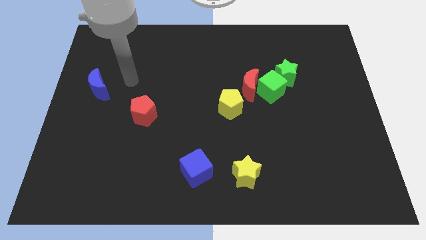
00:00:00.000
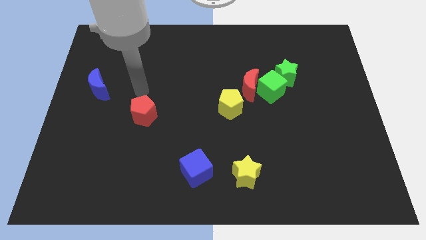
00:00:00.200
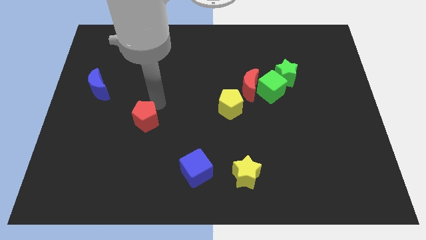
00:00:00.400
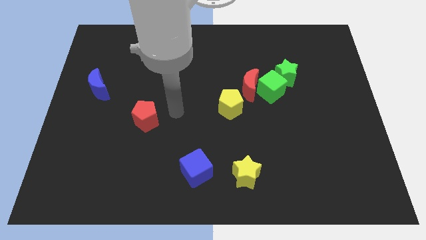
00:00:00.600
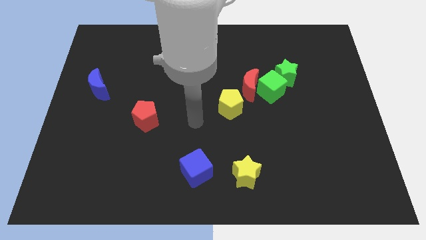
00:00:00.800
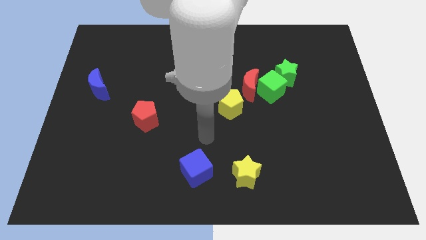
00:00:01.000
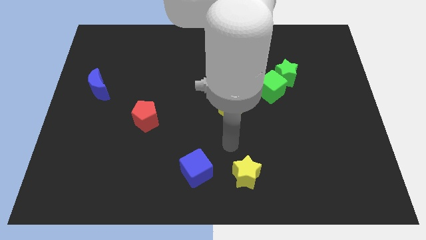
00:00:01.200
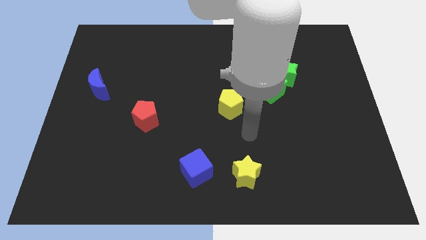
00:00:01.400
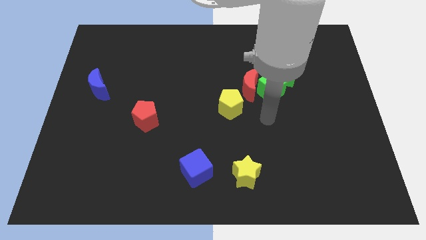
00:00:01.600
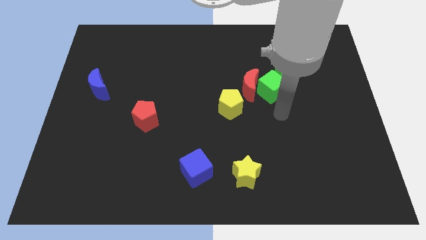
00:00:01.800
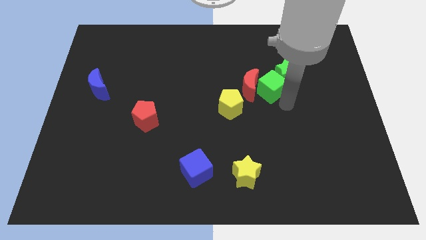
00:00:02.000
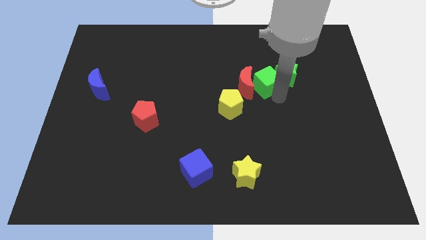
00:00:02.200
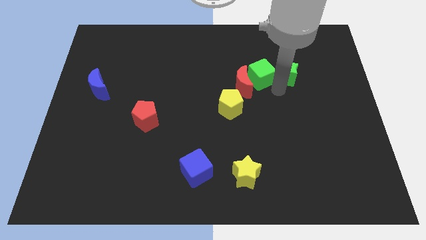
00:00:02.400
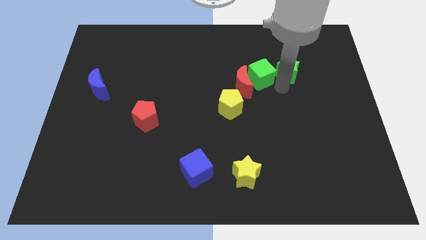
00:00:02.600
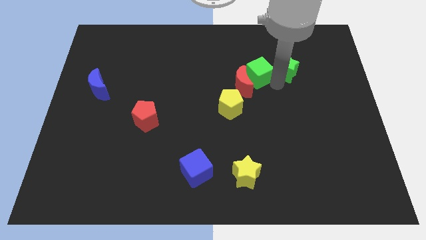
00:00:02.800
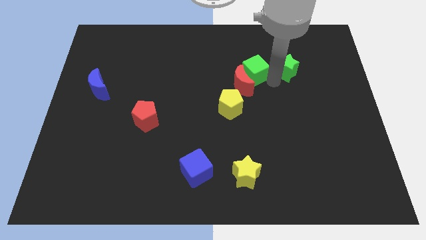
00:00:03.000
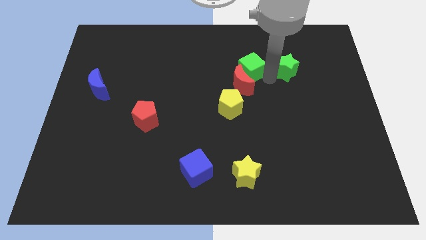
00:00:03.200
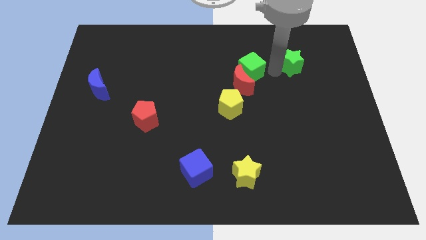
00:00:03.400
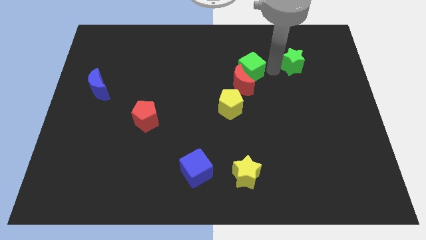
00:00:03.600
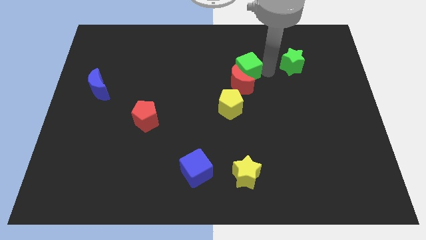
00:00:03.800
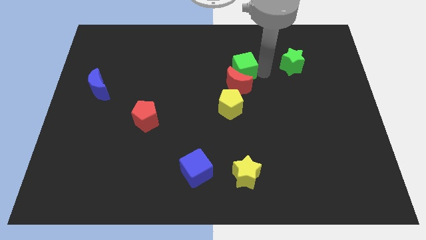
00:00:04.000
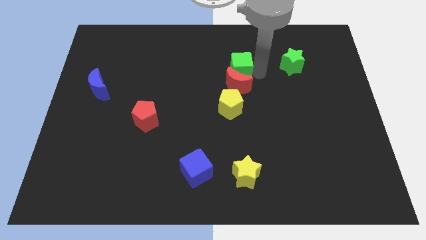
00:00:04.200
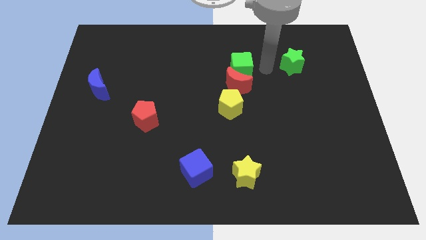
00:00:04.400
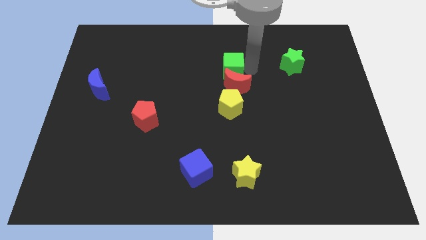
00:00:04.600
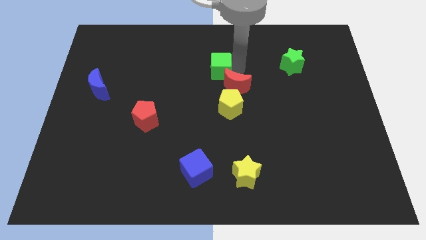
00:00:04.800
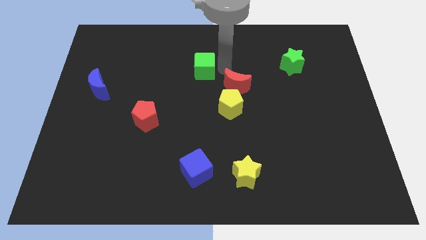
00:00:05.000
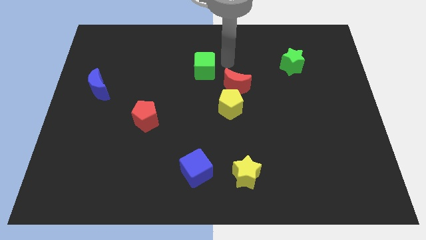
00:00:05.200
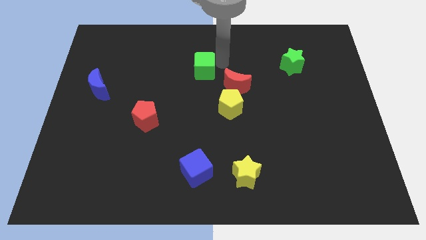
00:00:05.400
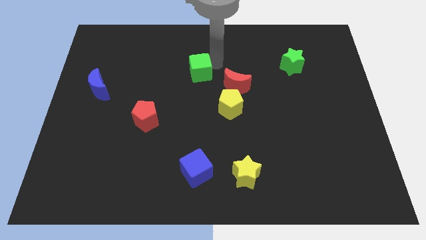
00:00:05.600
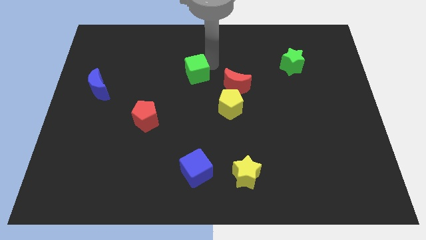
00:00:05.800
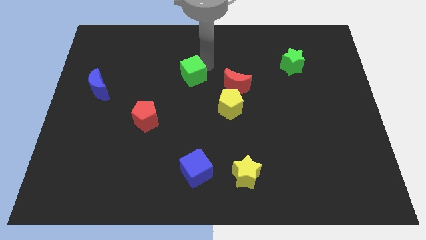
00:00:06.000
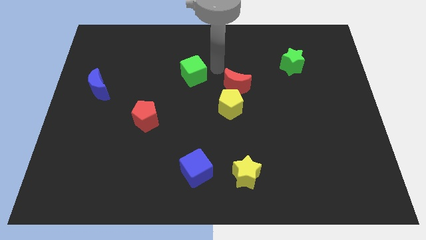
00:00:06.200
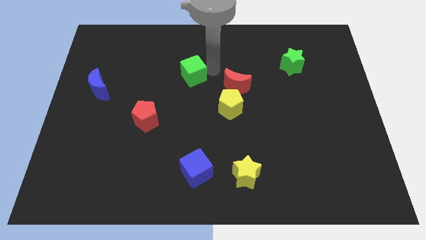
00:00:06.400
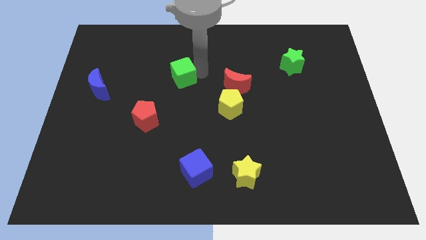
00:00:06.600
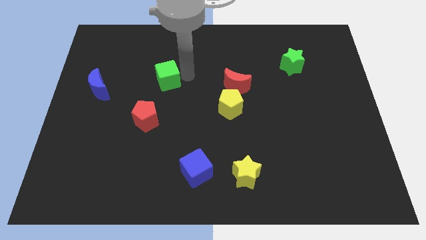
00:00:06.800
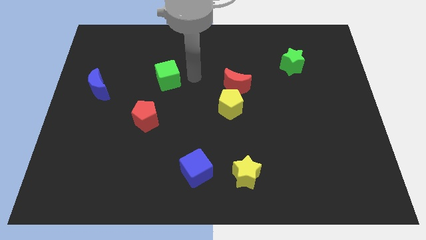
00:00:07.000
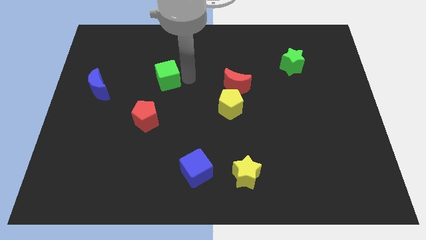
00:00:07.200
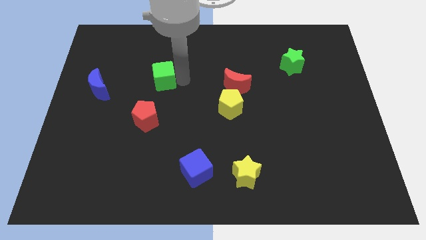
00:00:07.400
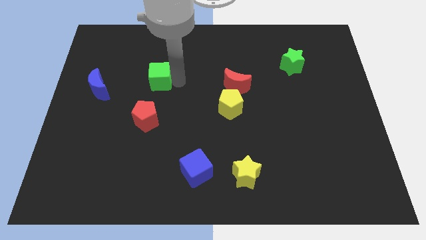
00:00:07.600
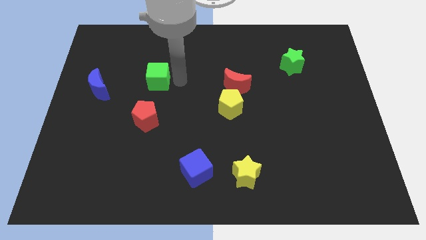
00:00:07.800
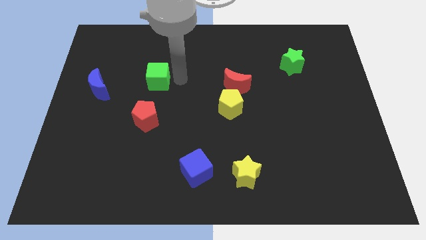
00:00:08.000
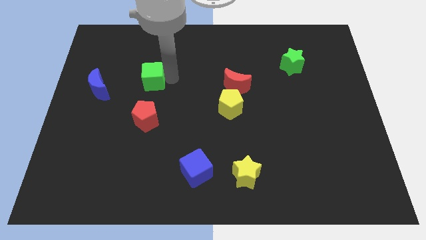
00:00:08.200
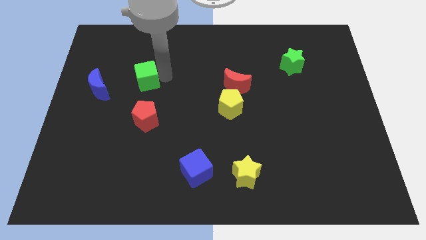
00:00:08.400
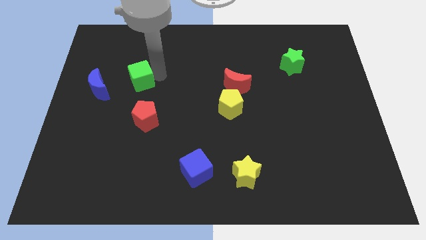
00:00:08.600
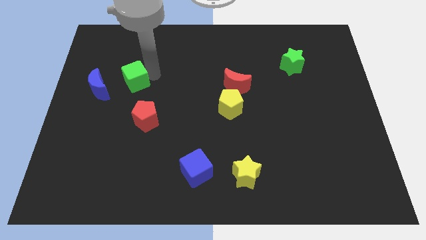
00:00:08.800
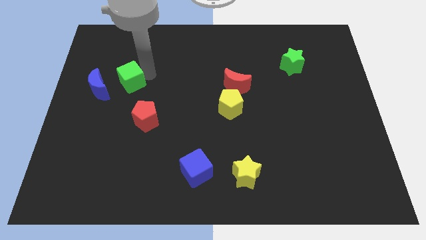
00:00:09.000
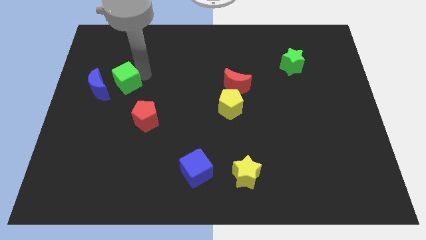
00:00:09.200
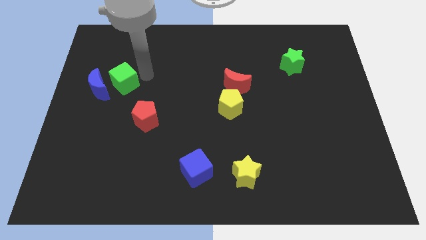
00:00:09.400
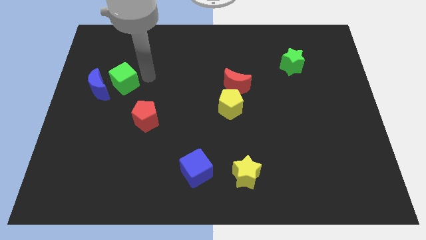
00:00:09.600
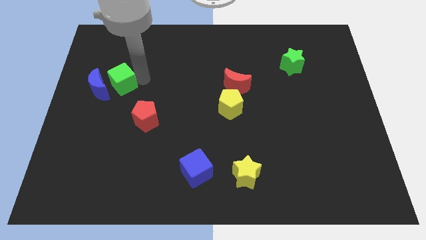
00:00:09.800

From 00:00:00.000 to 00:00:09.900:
push the green cube towards the blue moon

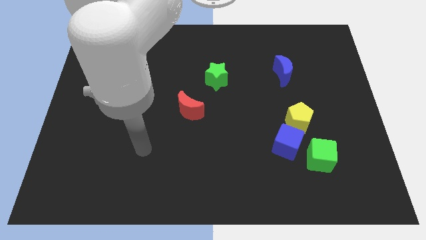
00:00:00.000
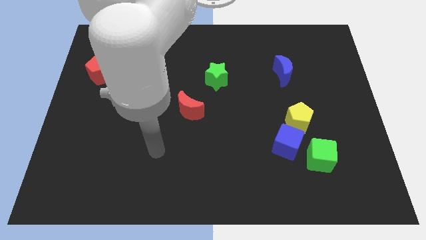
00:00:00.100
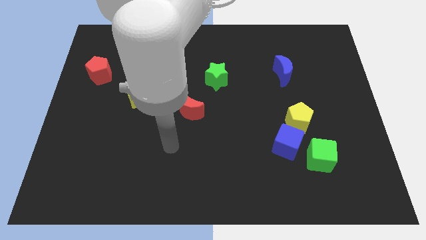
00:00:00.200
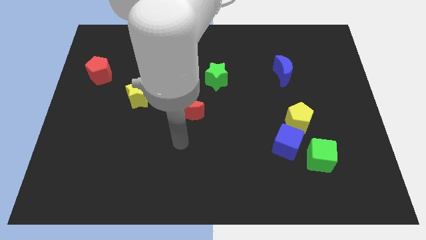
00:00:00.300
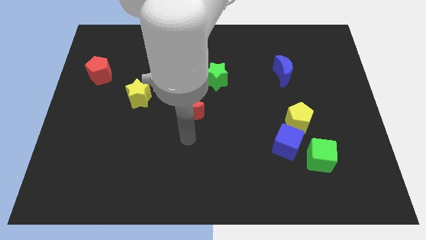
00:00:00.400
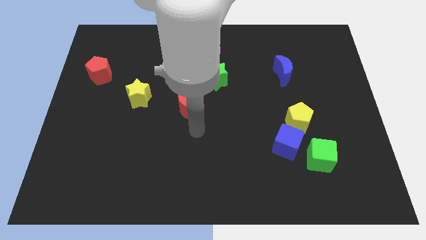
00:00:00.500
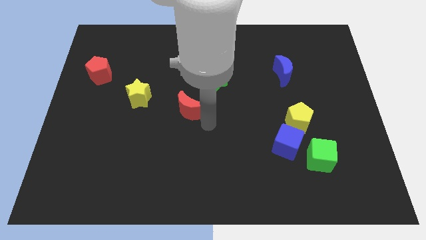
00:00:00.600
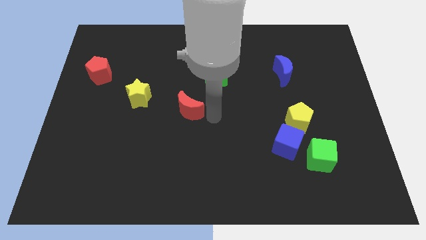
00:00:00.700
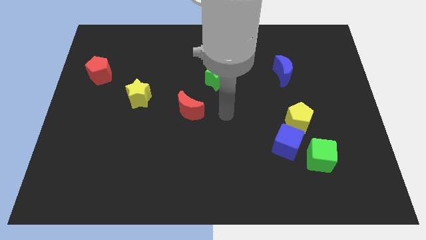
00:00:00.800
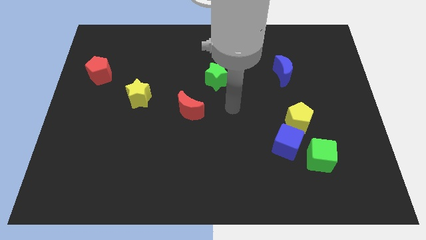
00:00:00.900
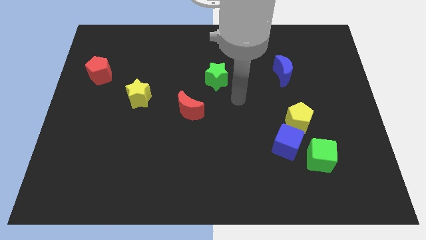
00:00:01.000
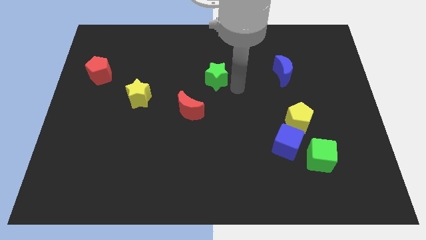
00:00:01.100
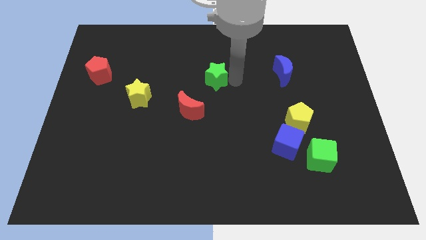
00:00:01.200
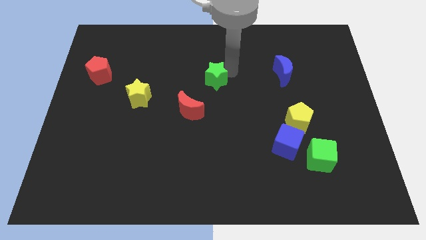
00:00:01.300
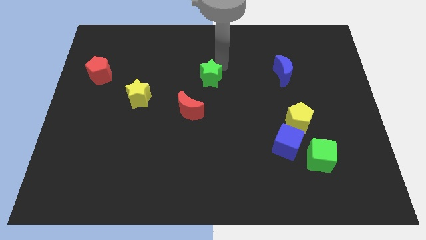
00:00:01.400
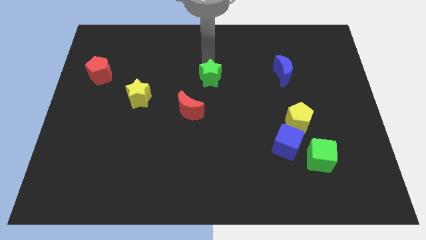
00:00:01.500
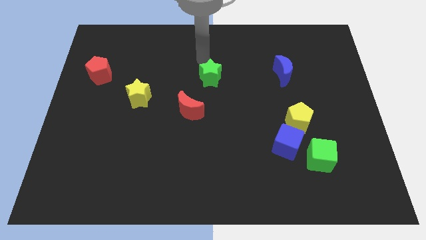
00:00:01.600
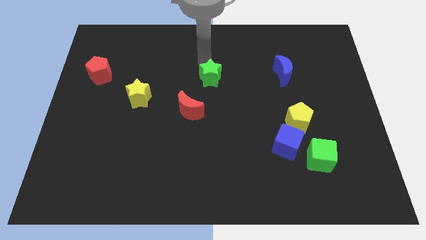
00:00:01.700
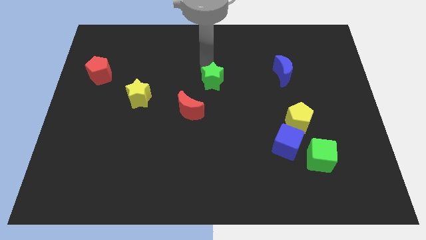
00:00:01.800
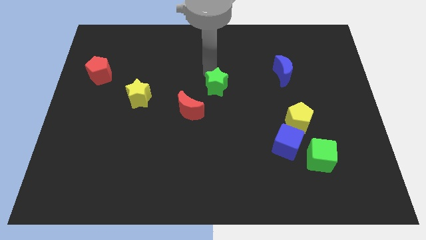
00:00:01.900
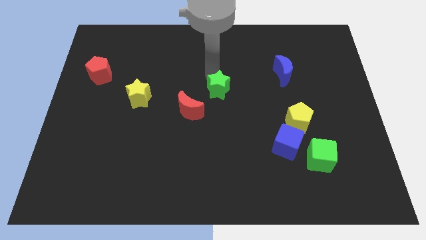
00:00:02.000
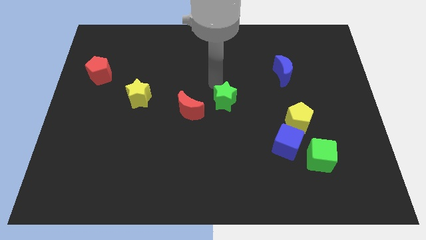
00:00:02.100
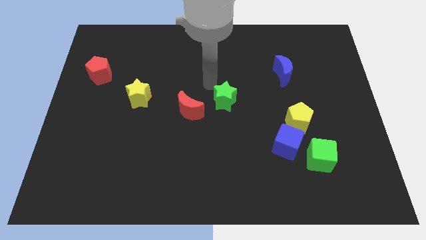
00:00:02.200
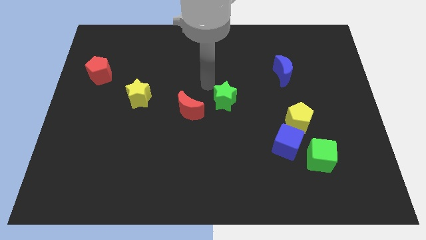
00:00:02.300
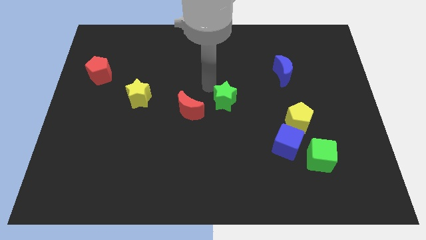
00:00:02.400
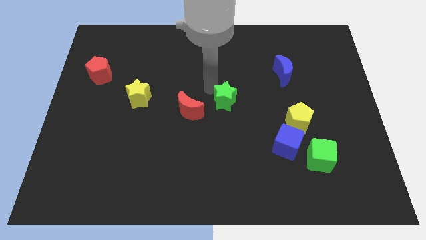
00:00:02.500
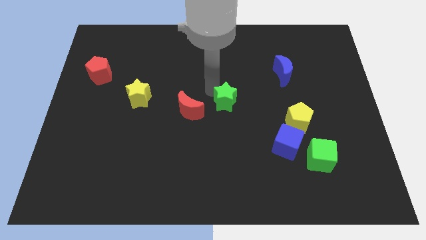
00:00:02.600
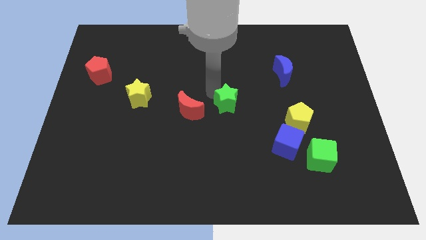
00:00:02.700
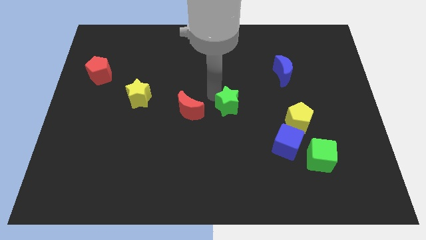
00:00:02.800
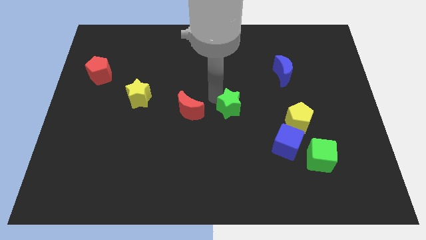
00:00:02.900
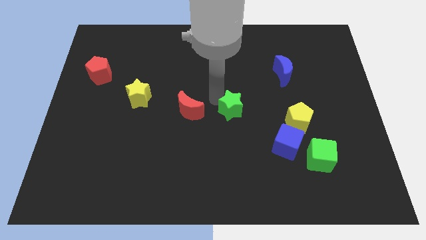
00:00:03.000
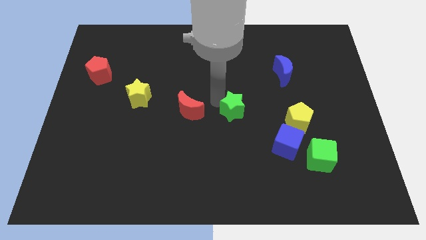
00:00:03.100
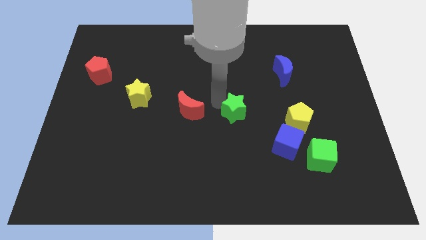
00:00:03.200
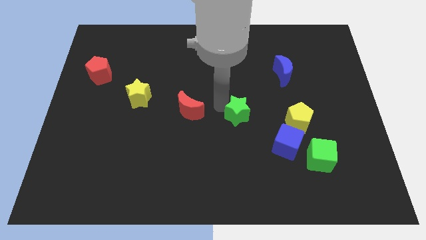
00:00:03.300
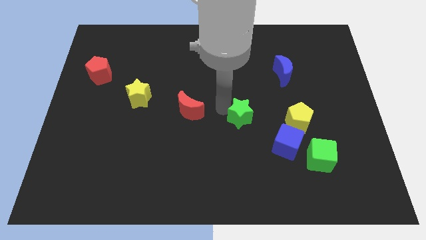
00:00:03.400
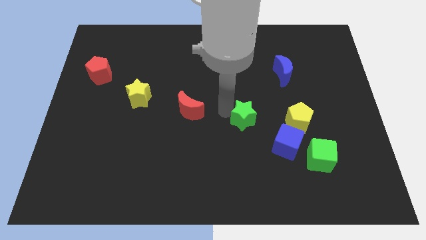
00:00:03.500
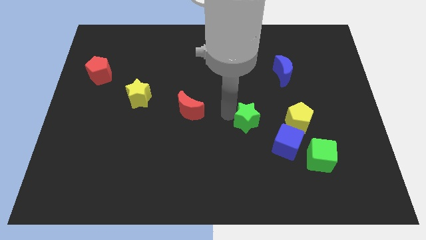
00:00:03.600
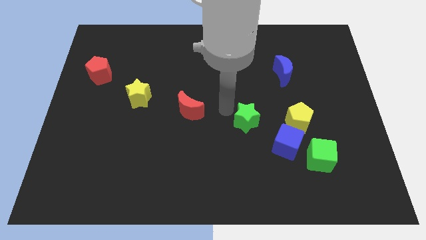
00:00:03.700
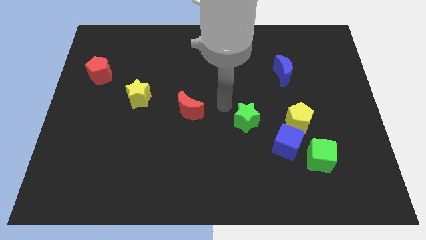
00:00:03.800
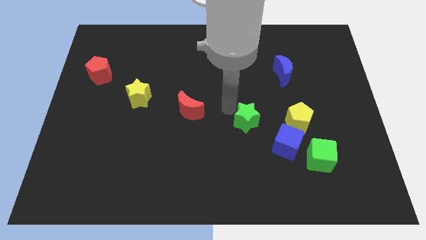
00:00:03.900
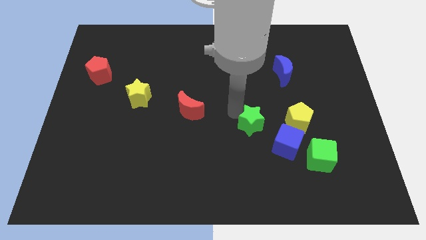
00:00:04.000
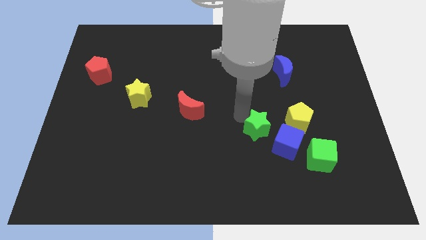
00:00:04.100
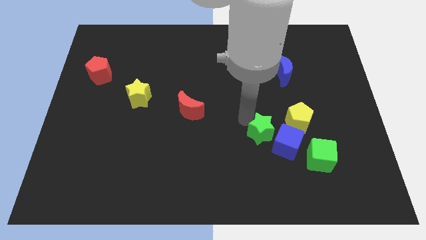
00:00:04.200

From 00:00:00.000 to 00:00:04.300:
slide the green star to the blue cube
